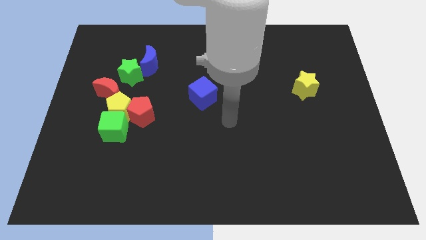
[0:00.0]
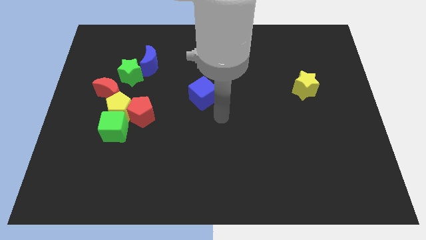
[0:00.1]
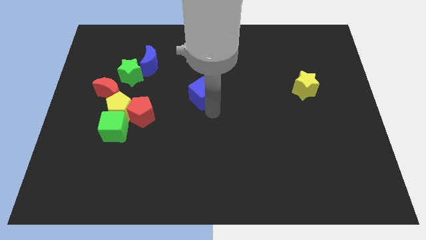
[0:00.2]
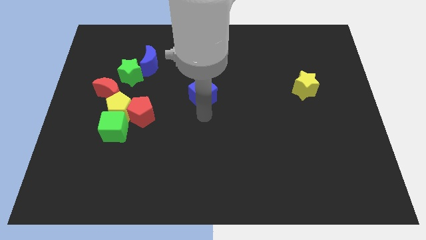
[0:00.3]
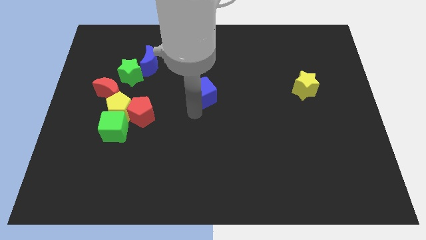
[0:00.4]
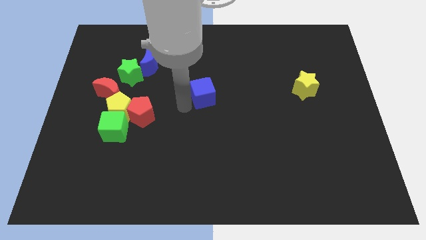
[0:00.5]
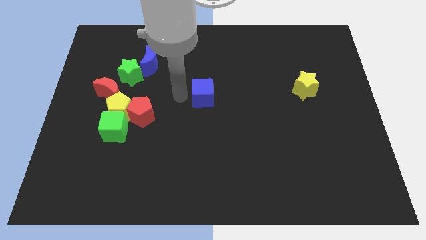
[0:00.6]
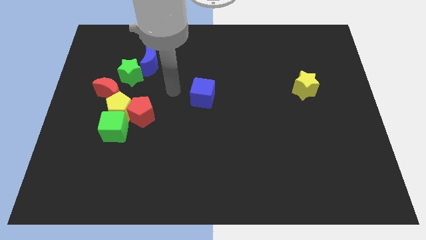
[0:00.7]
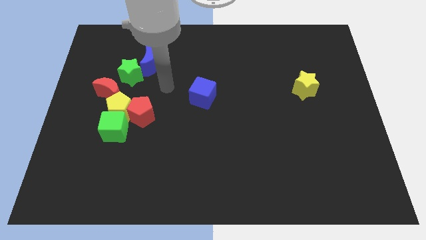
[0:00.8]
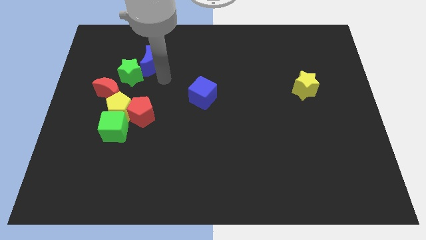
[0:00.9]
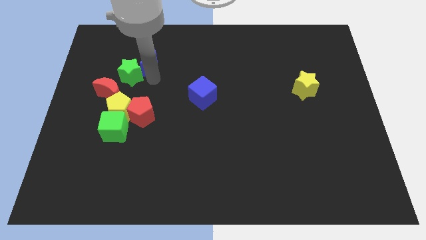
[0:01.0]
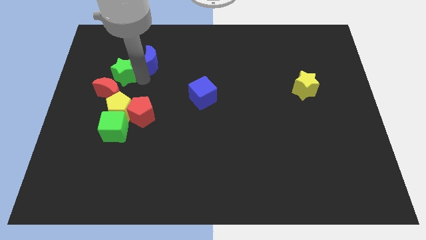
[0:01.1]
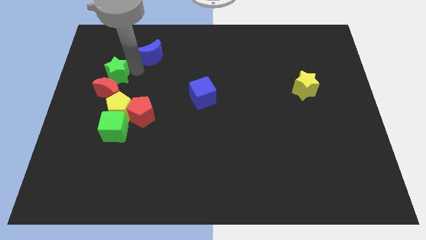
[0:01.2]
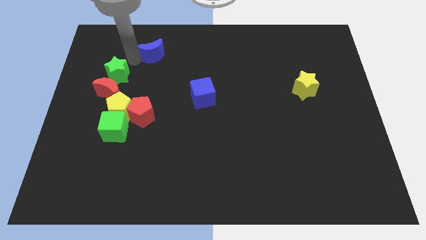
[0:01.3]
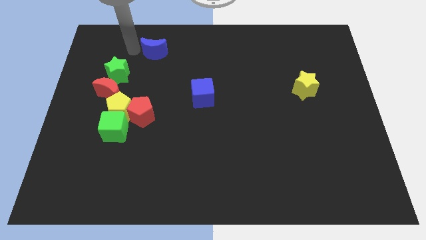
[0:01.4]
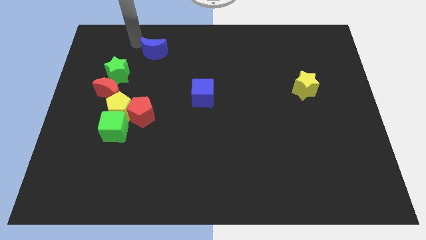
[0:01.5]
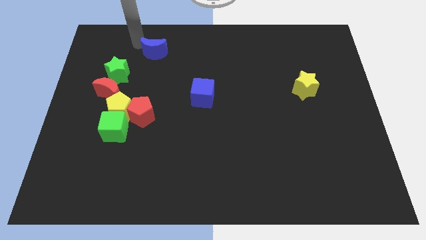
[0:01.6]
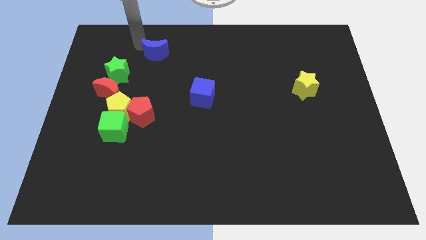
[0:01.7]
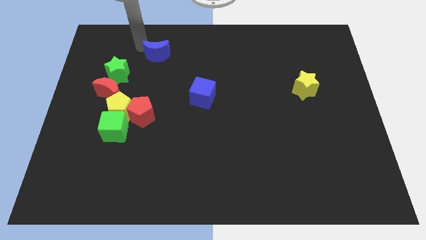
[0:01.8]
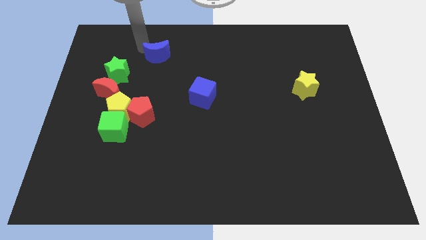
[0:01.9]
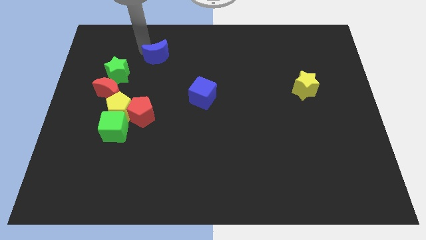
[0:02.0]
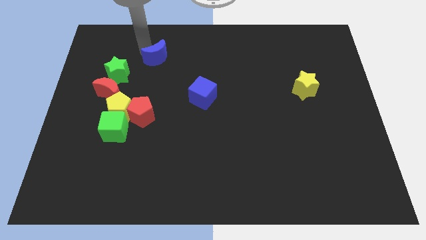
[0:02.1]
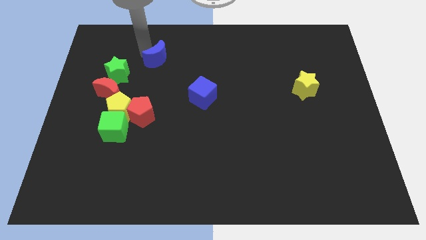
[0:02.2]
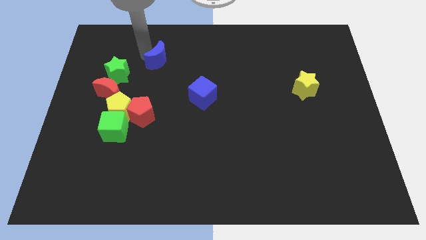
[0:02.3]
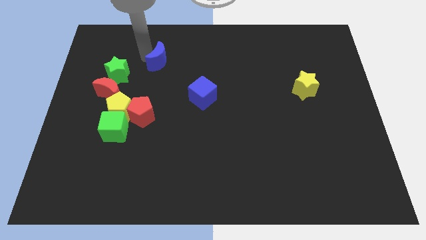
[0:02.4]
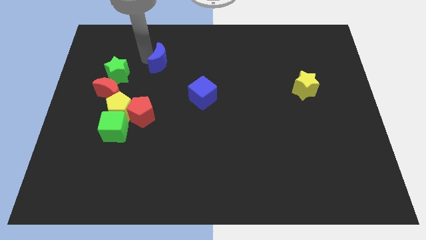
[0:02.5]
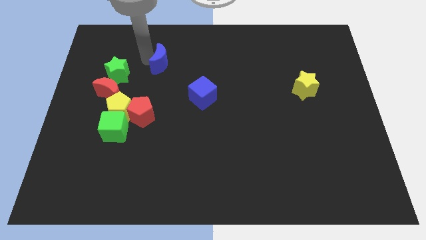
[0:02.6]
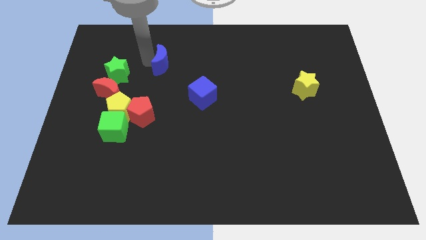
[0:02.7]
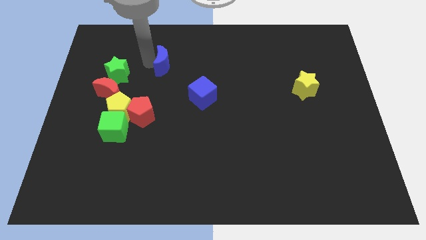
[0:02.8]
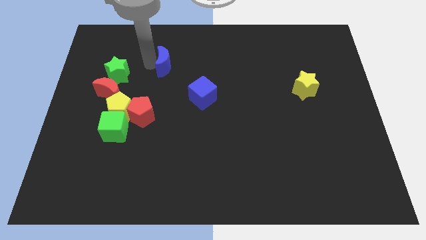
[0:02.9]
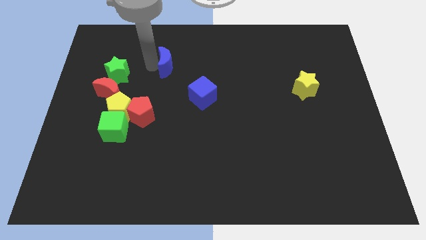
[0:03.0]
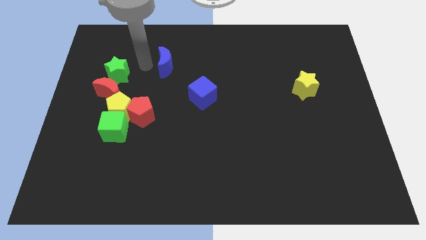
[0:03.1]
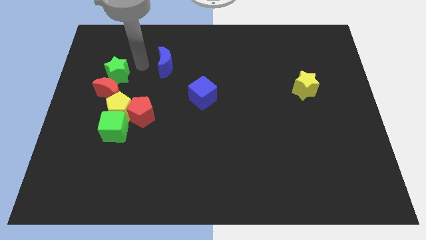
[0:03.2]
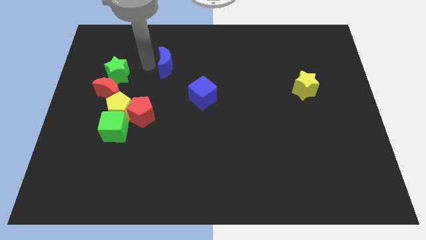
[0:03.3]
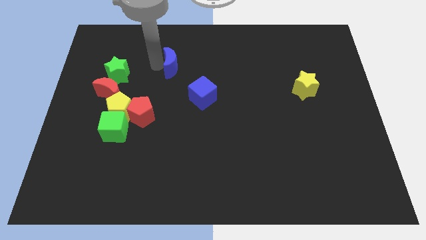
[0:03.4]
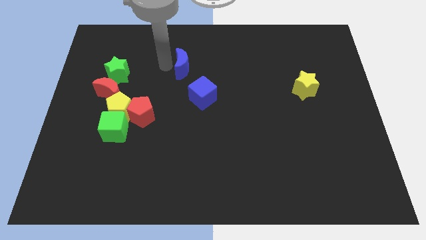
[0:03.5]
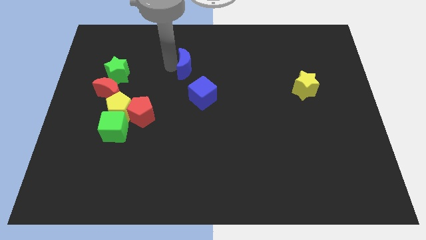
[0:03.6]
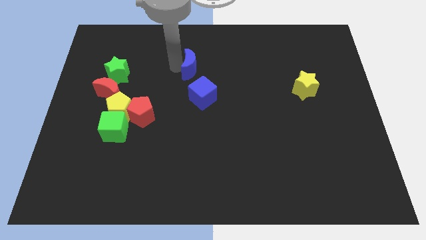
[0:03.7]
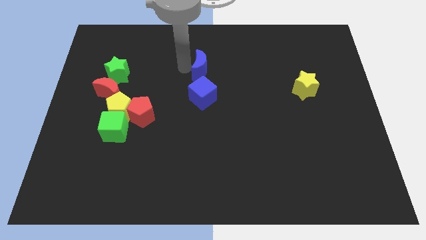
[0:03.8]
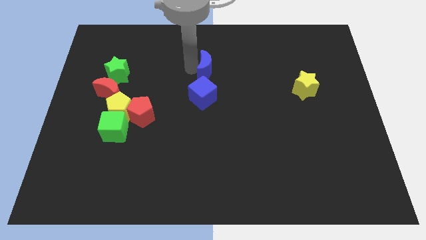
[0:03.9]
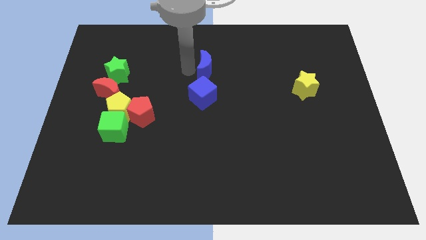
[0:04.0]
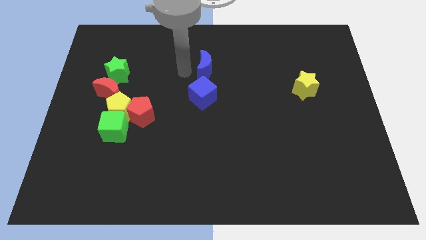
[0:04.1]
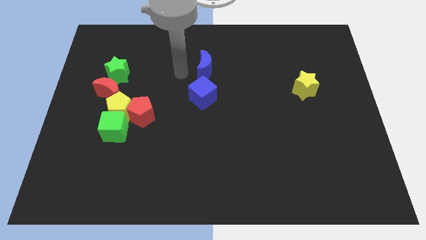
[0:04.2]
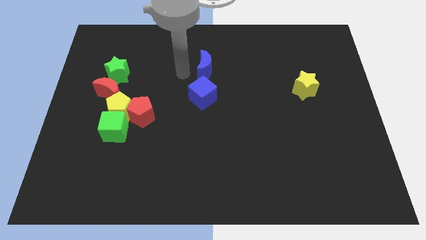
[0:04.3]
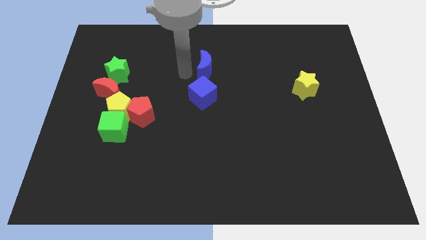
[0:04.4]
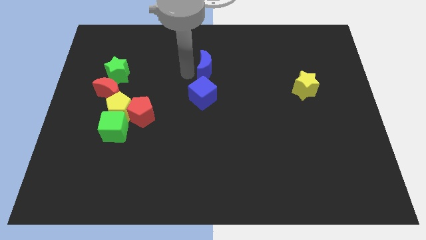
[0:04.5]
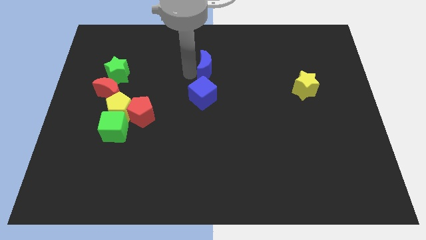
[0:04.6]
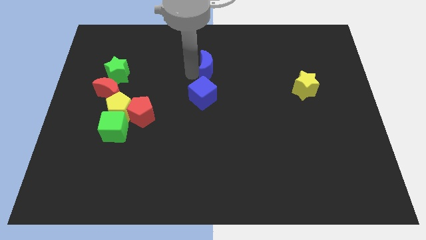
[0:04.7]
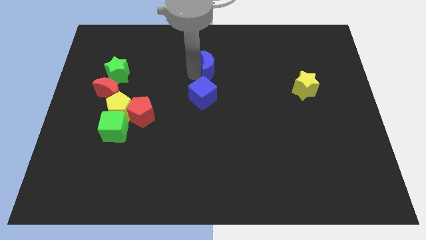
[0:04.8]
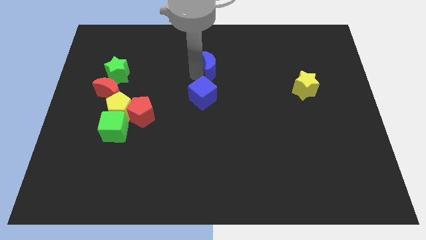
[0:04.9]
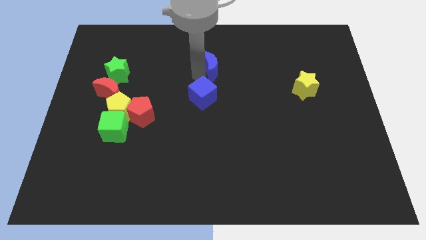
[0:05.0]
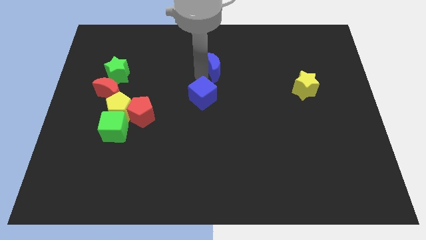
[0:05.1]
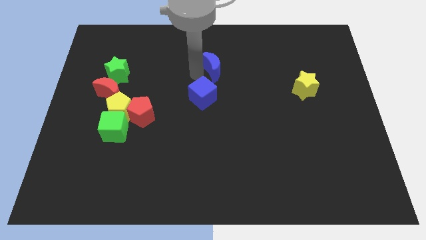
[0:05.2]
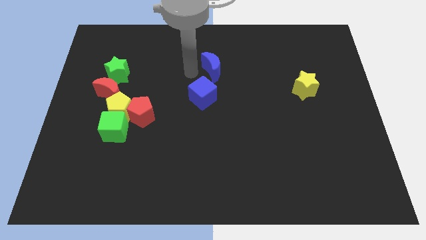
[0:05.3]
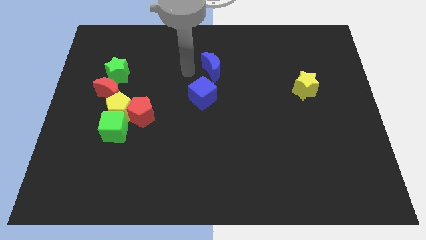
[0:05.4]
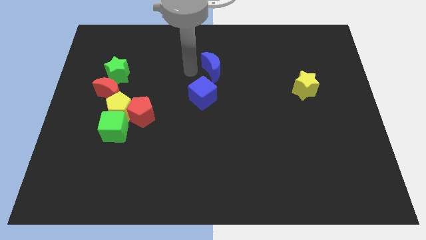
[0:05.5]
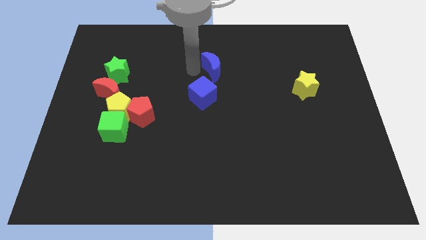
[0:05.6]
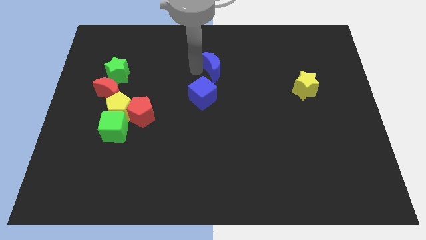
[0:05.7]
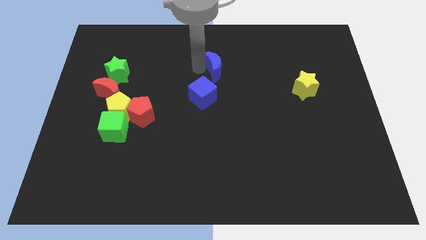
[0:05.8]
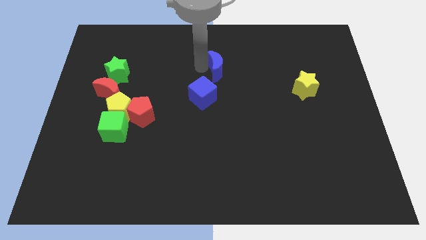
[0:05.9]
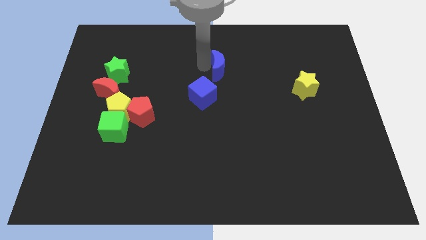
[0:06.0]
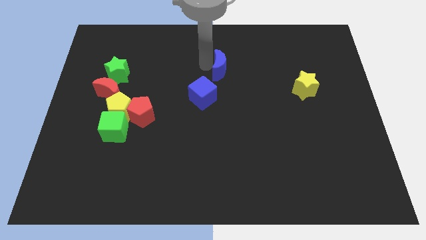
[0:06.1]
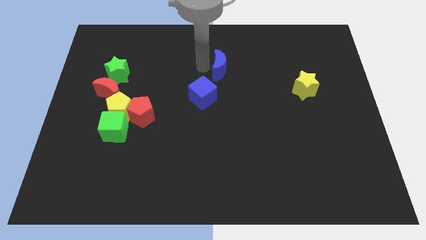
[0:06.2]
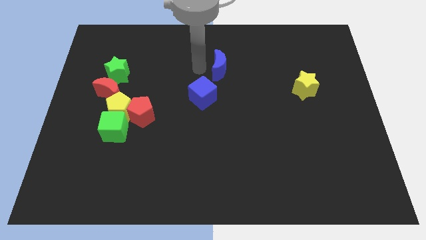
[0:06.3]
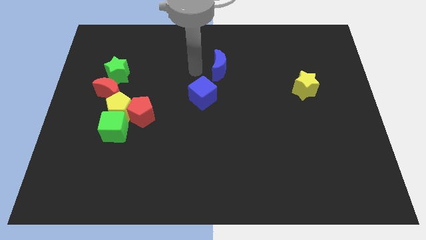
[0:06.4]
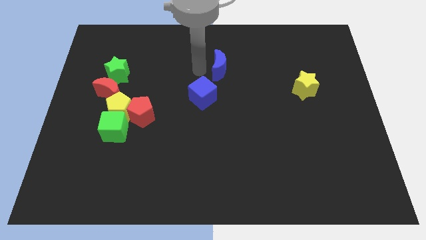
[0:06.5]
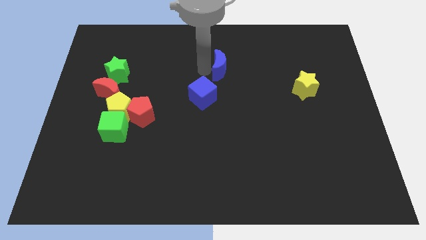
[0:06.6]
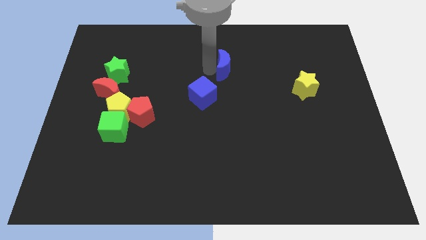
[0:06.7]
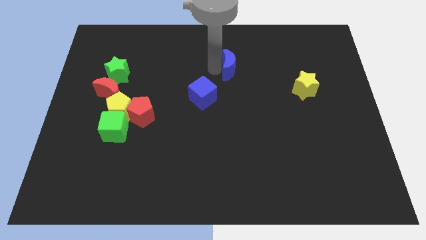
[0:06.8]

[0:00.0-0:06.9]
slide the blue moon to the right

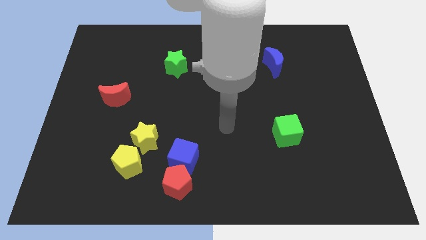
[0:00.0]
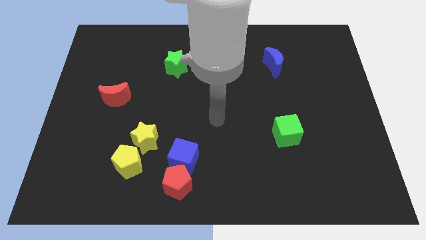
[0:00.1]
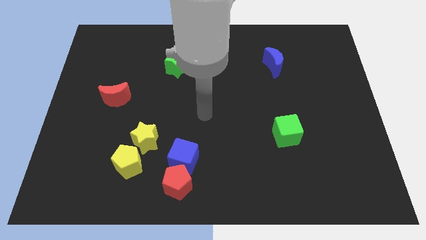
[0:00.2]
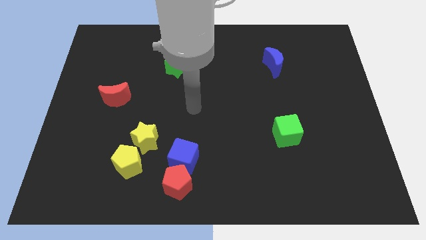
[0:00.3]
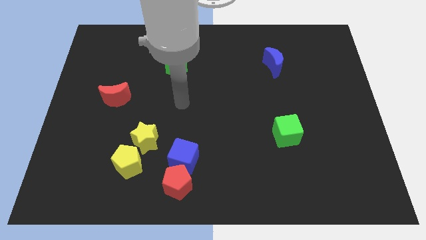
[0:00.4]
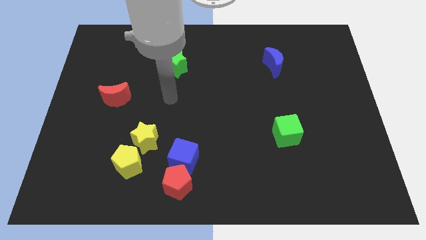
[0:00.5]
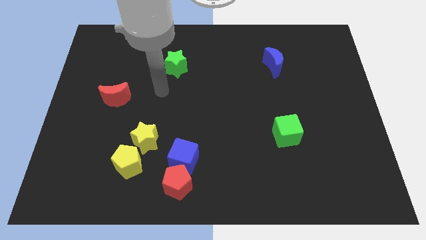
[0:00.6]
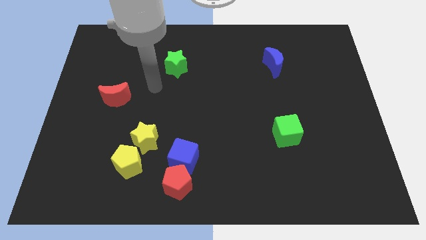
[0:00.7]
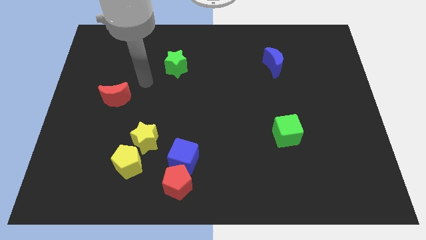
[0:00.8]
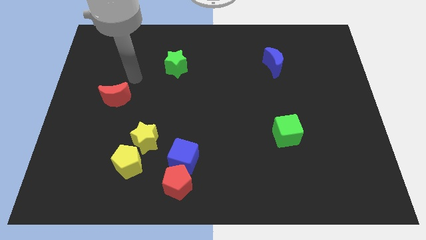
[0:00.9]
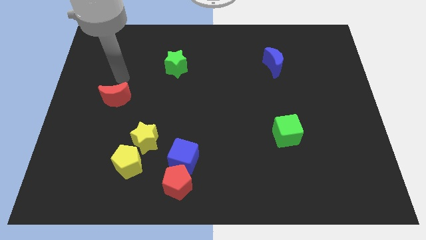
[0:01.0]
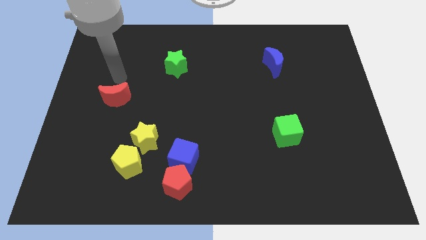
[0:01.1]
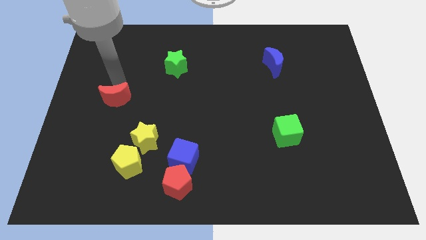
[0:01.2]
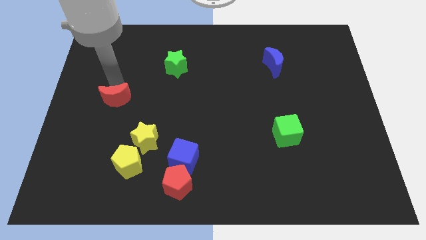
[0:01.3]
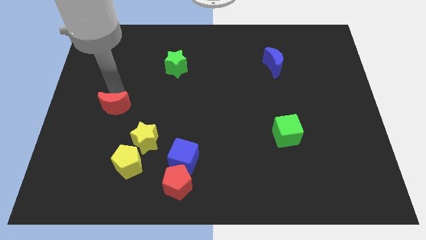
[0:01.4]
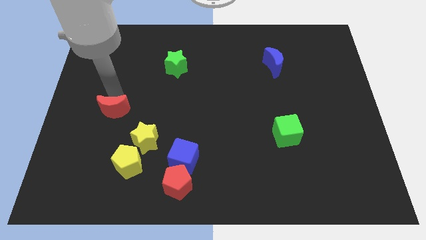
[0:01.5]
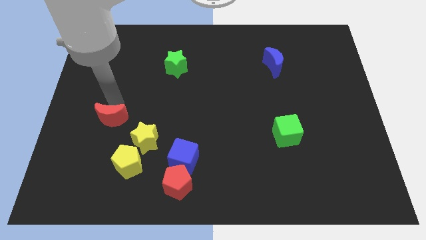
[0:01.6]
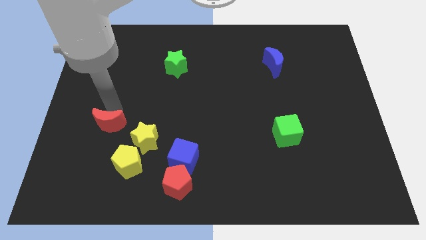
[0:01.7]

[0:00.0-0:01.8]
slightly move the red moon down

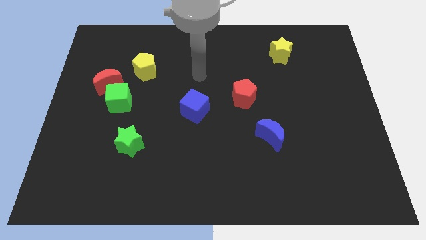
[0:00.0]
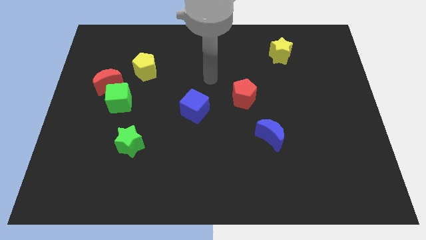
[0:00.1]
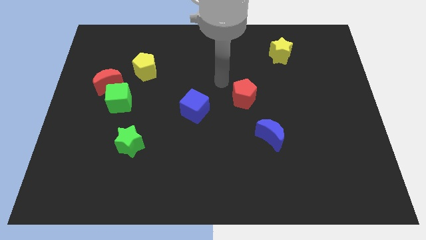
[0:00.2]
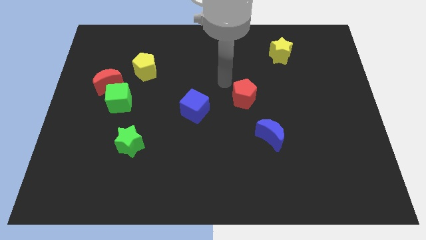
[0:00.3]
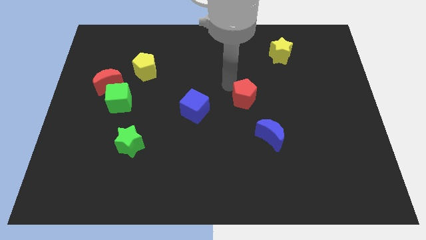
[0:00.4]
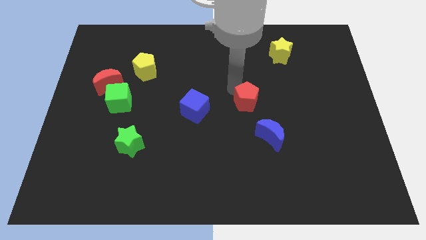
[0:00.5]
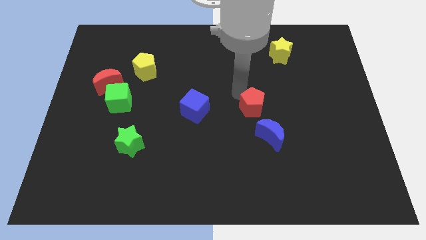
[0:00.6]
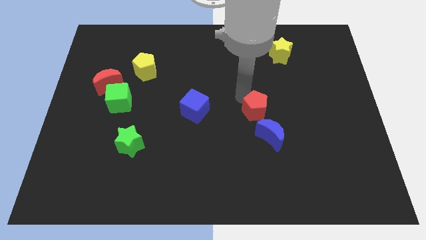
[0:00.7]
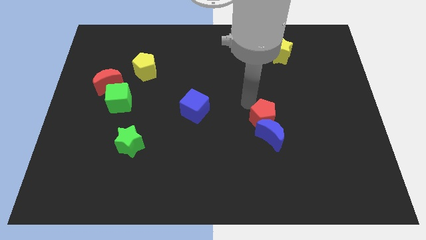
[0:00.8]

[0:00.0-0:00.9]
slide the red pentagon diagonally downwards and to the right slightly
